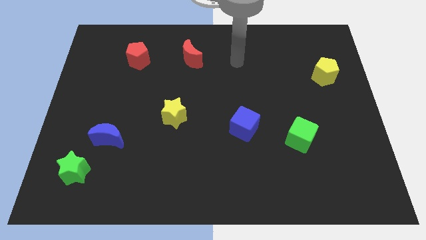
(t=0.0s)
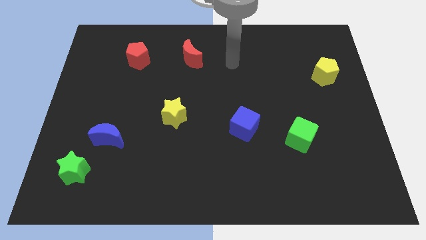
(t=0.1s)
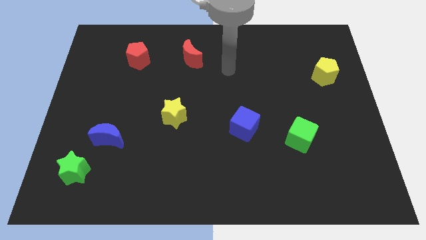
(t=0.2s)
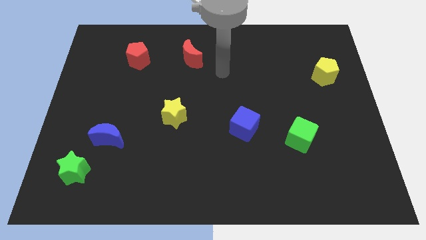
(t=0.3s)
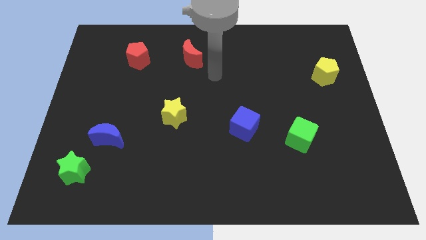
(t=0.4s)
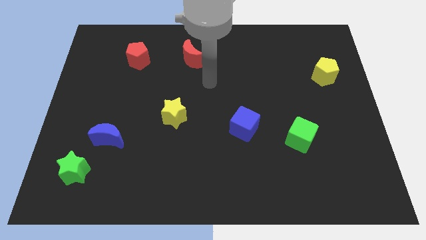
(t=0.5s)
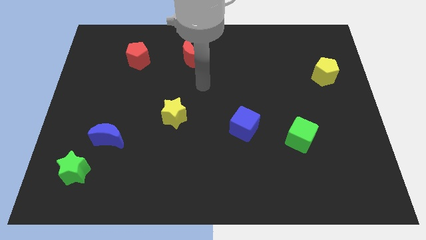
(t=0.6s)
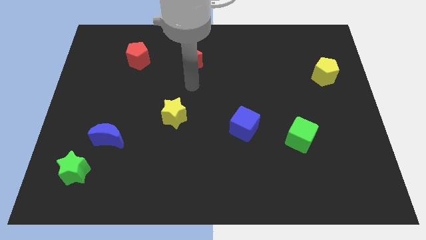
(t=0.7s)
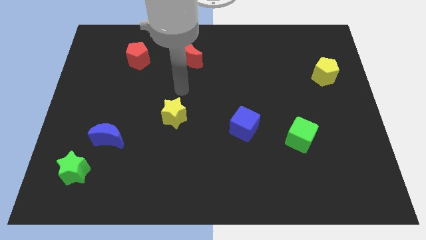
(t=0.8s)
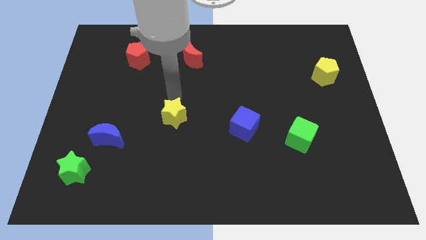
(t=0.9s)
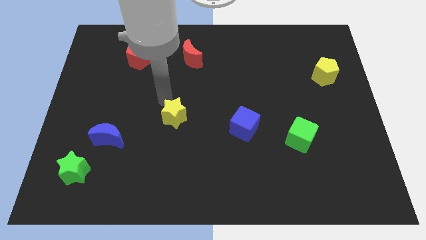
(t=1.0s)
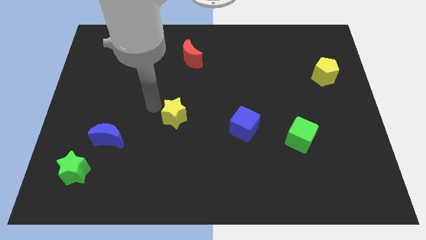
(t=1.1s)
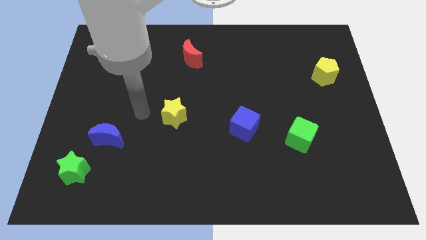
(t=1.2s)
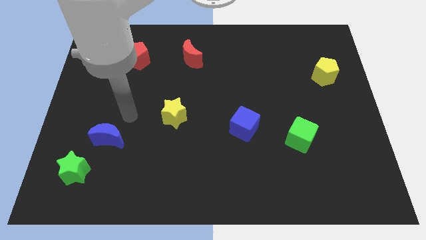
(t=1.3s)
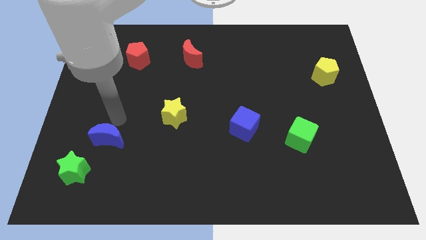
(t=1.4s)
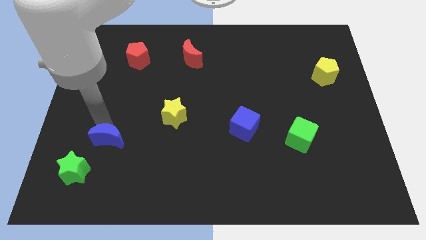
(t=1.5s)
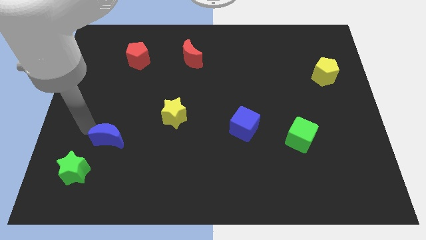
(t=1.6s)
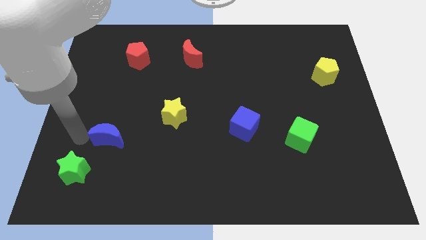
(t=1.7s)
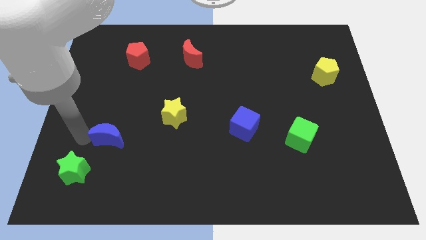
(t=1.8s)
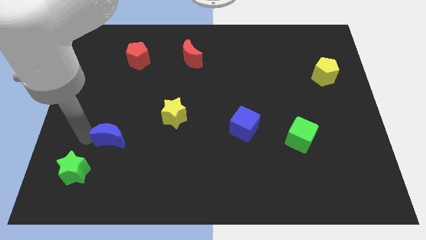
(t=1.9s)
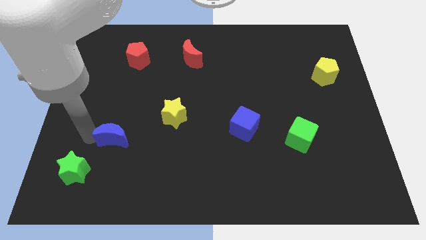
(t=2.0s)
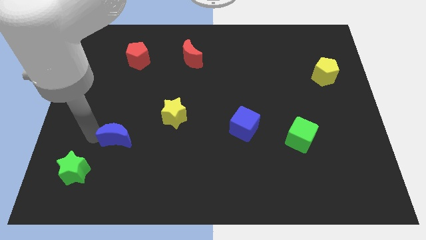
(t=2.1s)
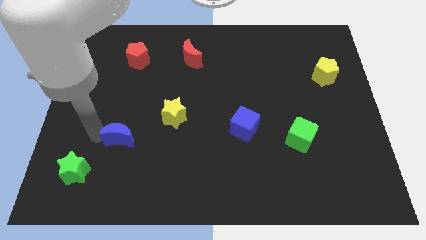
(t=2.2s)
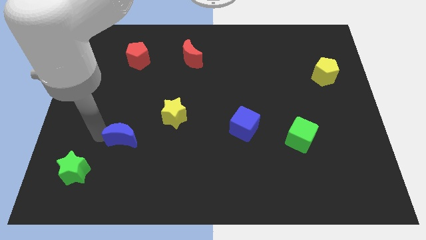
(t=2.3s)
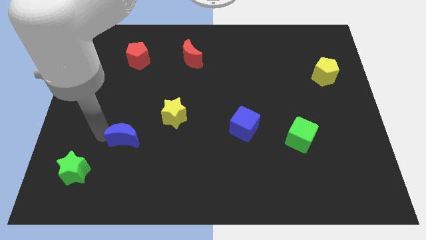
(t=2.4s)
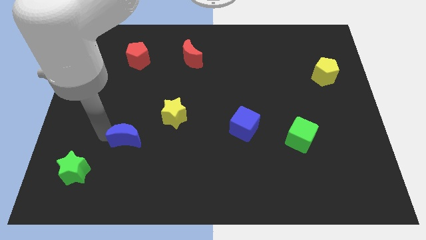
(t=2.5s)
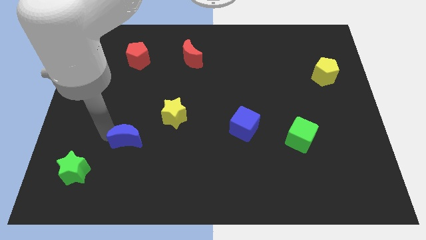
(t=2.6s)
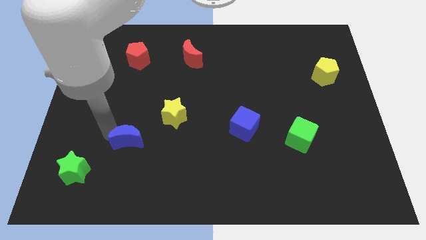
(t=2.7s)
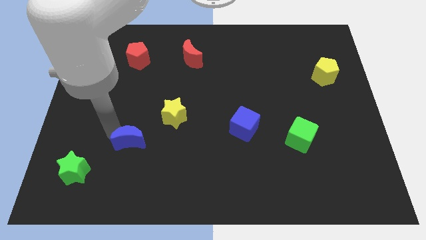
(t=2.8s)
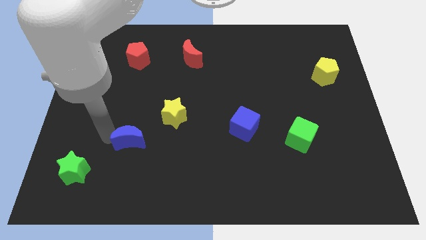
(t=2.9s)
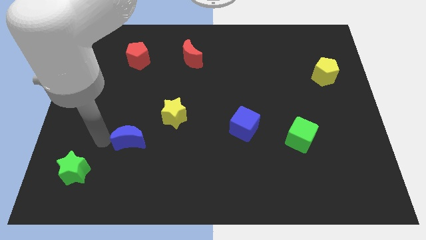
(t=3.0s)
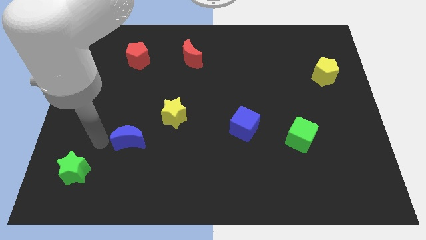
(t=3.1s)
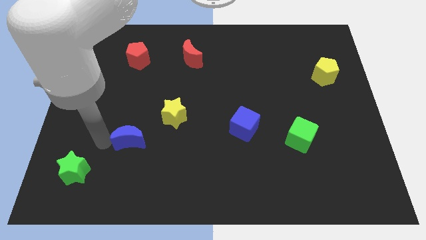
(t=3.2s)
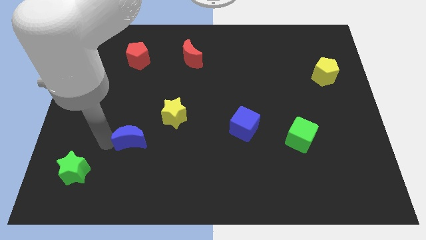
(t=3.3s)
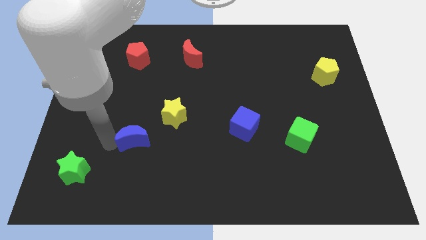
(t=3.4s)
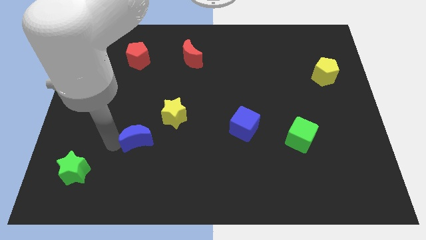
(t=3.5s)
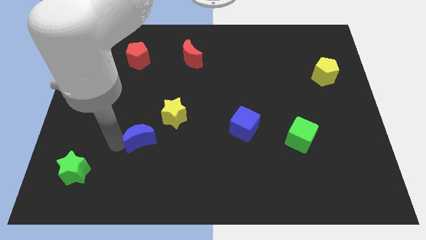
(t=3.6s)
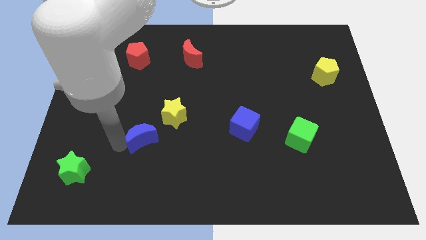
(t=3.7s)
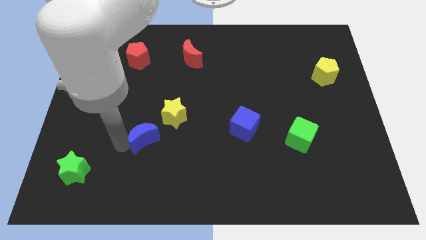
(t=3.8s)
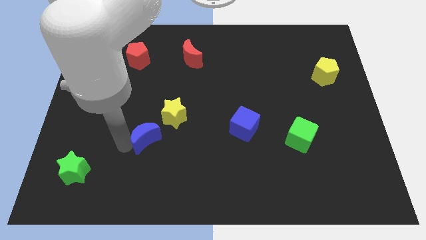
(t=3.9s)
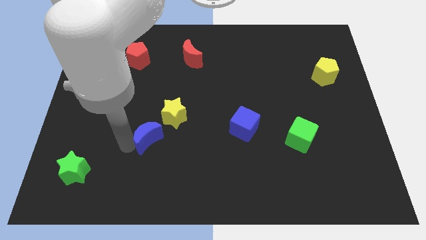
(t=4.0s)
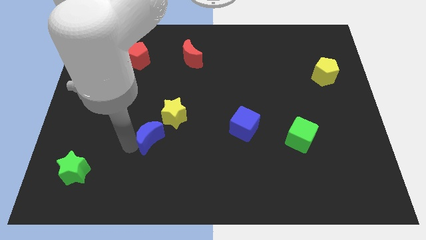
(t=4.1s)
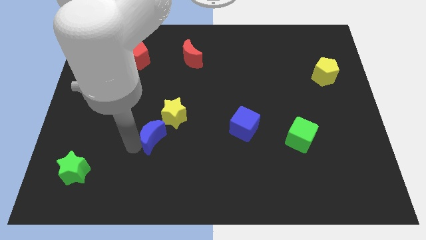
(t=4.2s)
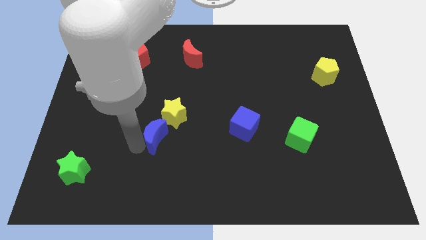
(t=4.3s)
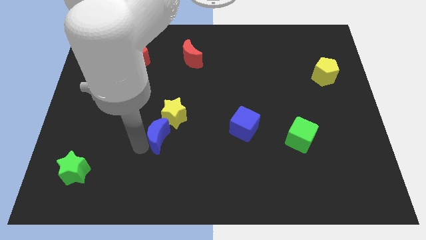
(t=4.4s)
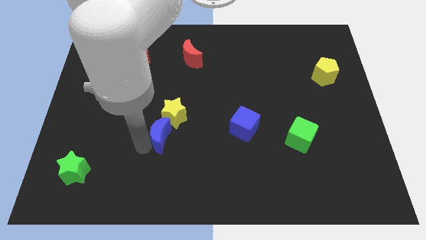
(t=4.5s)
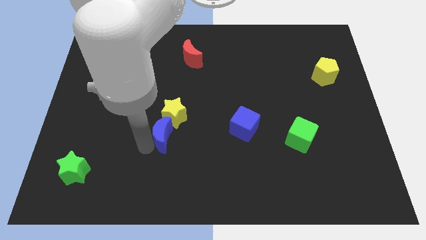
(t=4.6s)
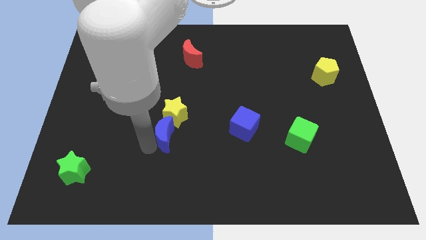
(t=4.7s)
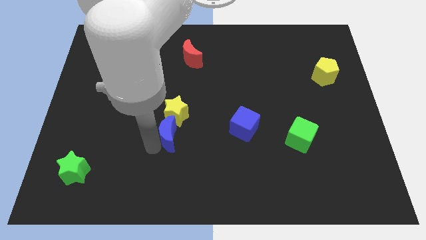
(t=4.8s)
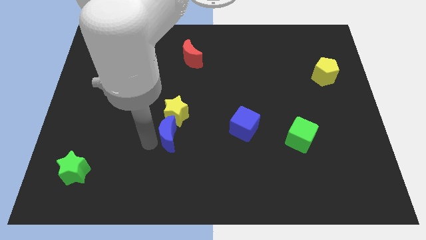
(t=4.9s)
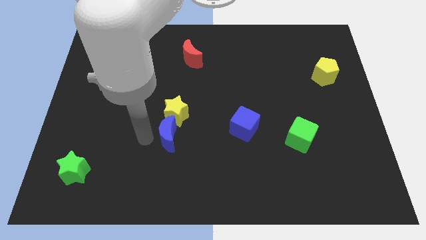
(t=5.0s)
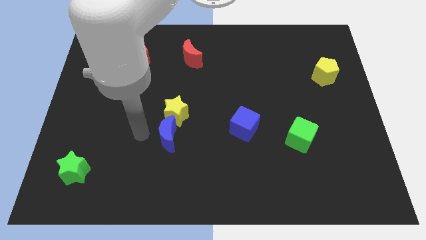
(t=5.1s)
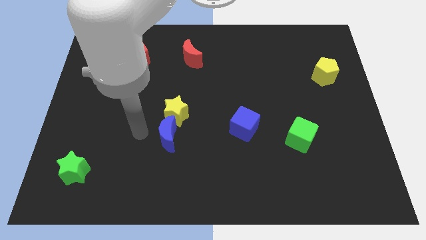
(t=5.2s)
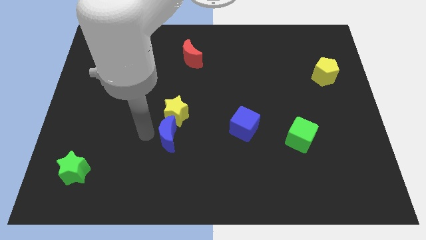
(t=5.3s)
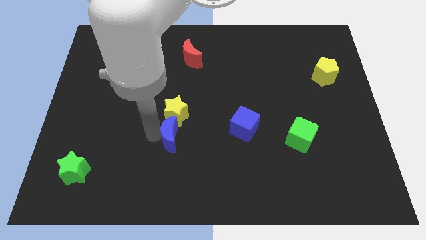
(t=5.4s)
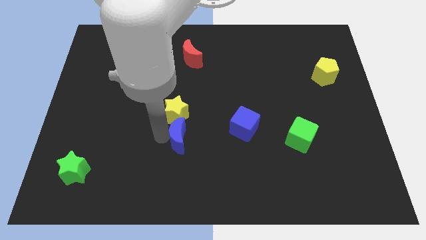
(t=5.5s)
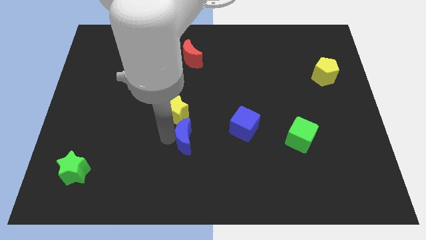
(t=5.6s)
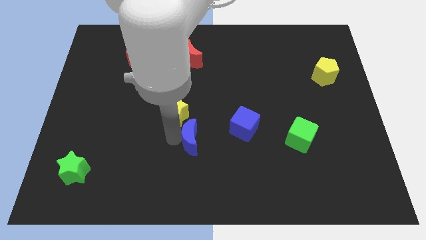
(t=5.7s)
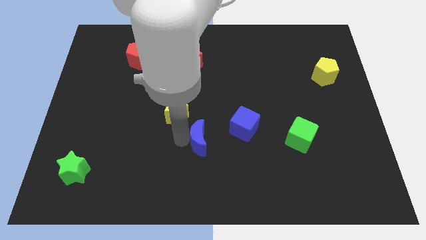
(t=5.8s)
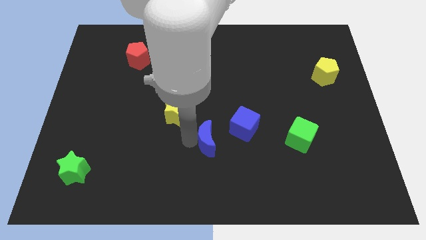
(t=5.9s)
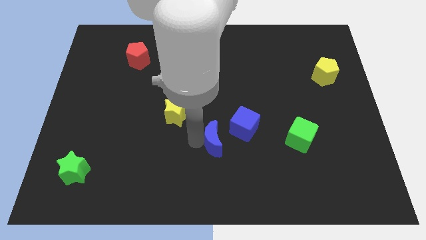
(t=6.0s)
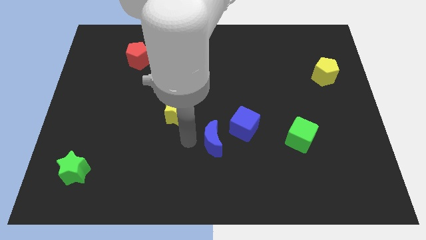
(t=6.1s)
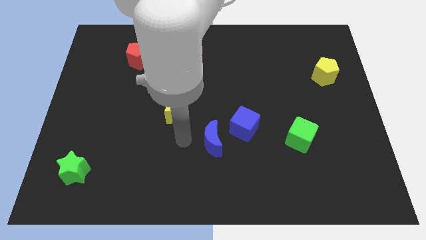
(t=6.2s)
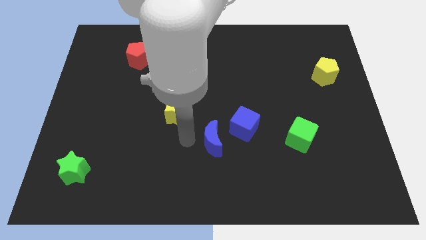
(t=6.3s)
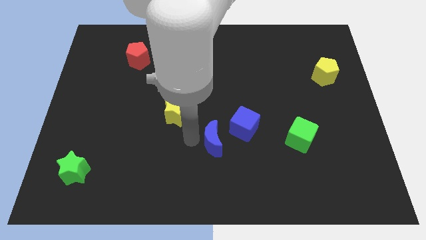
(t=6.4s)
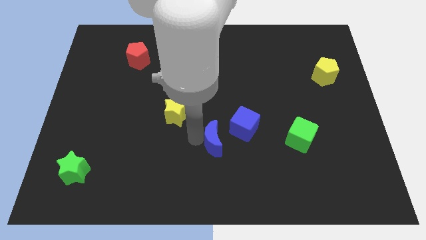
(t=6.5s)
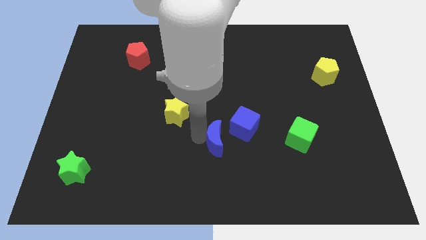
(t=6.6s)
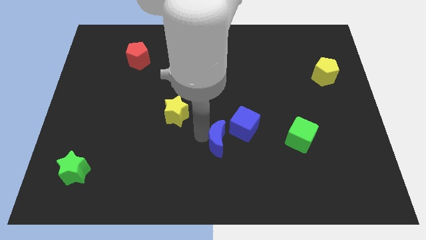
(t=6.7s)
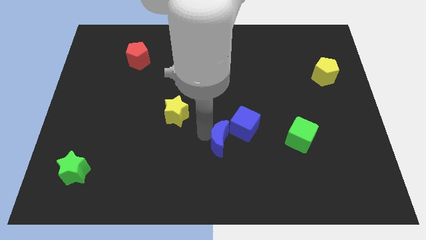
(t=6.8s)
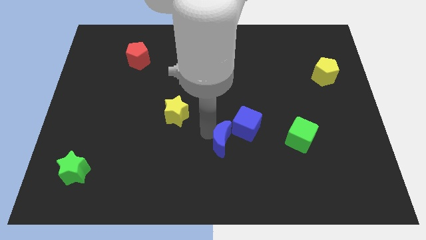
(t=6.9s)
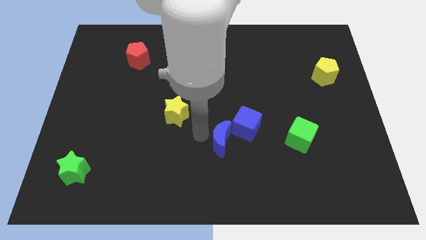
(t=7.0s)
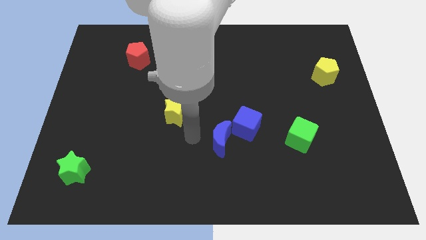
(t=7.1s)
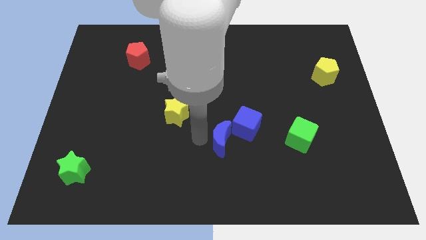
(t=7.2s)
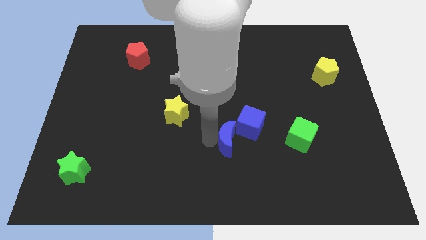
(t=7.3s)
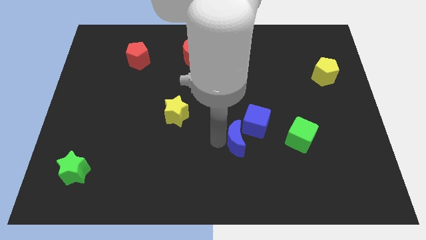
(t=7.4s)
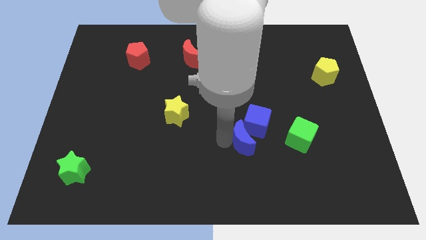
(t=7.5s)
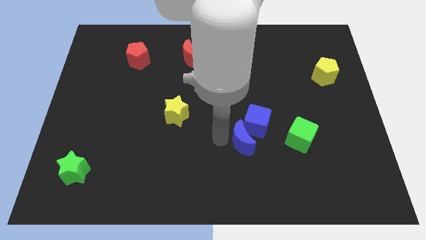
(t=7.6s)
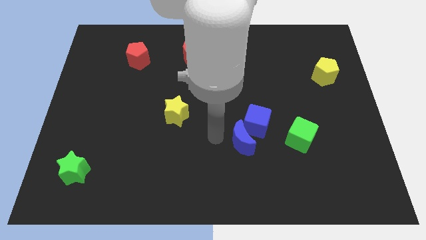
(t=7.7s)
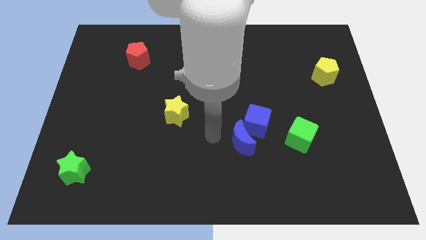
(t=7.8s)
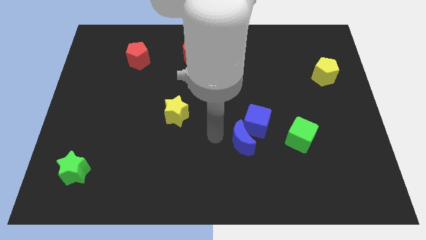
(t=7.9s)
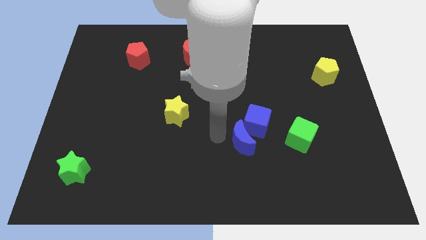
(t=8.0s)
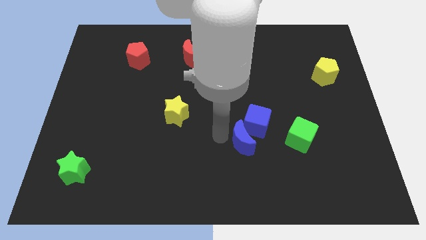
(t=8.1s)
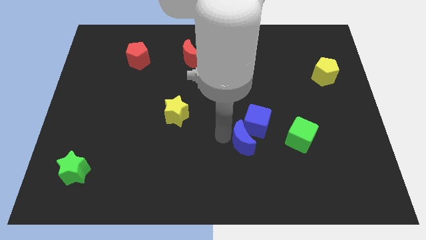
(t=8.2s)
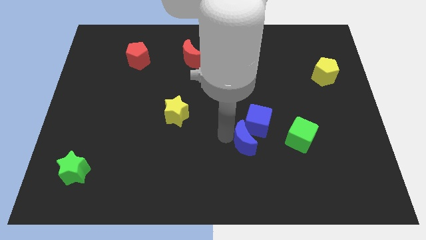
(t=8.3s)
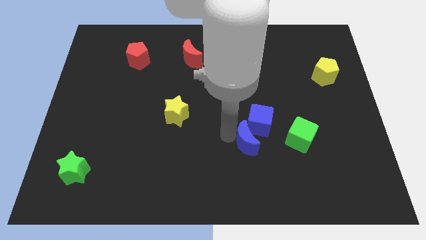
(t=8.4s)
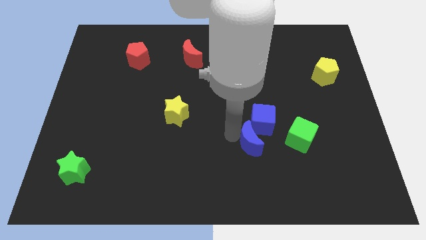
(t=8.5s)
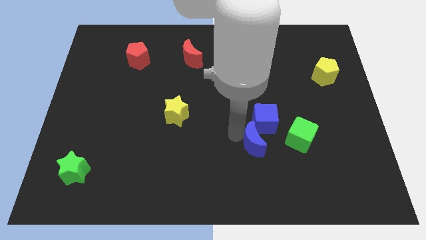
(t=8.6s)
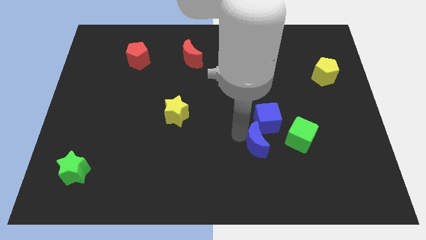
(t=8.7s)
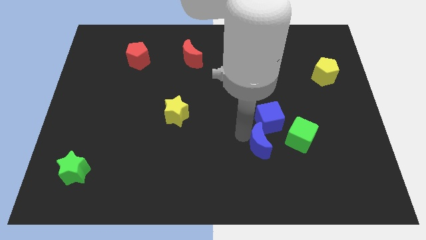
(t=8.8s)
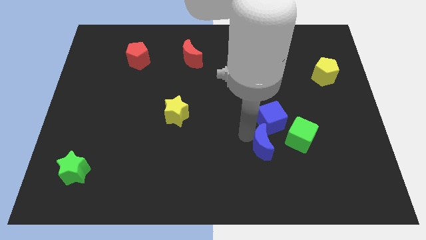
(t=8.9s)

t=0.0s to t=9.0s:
push the blue moon to the bottom left side of the green cube
